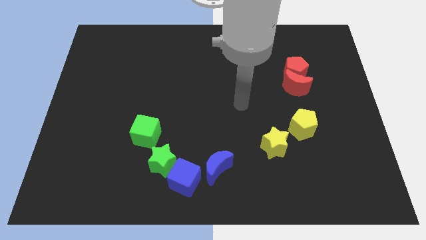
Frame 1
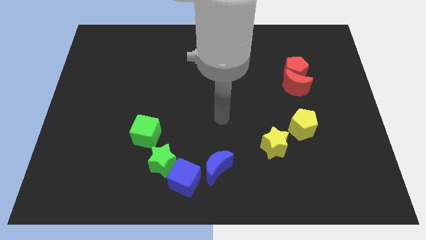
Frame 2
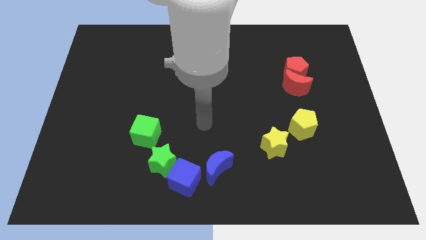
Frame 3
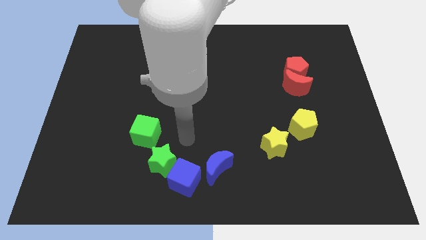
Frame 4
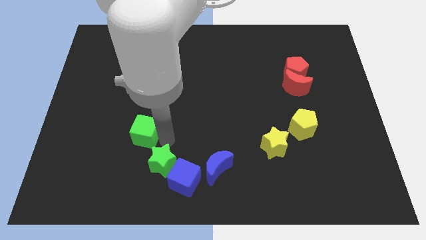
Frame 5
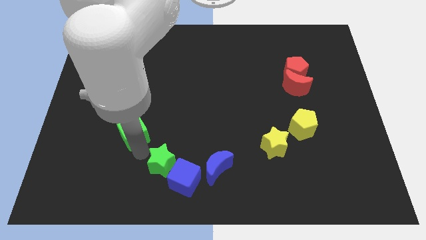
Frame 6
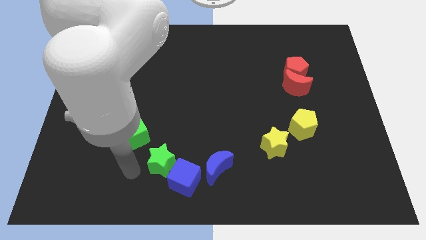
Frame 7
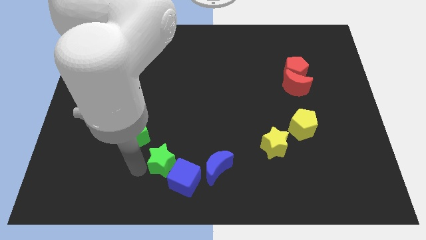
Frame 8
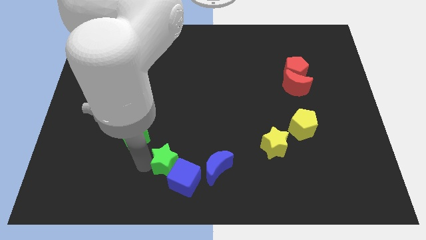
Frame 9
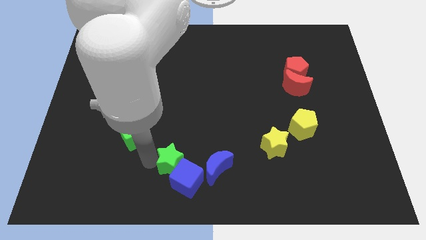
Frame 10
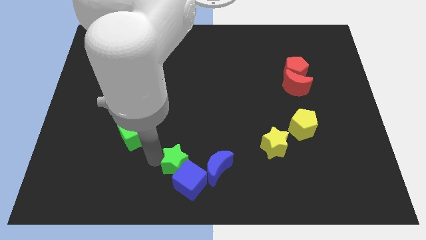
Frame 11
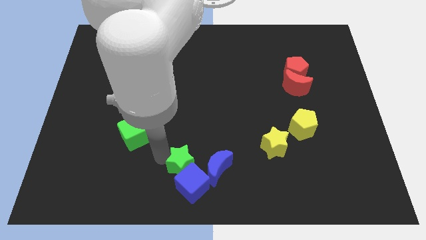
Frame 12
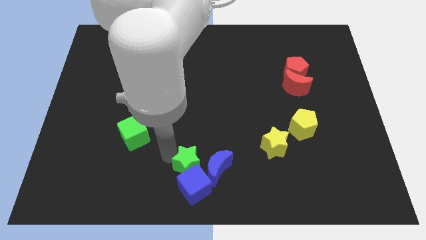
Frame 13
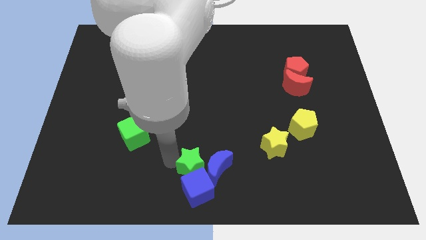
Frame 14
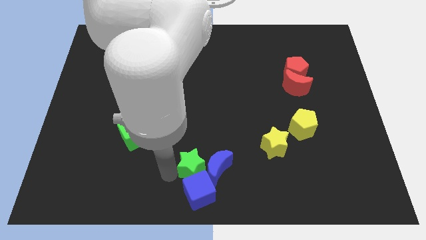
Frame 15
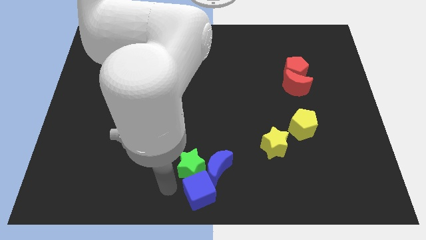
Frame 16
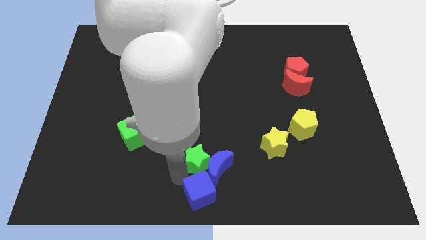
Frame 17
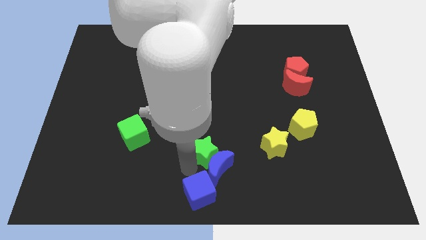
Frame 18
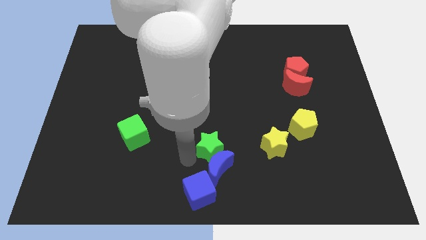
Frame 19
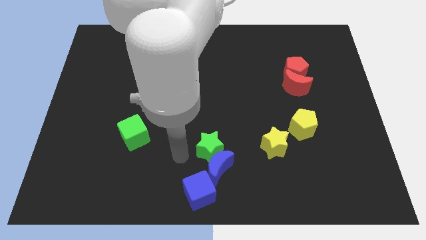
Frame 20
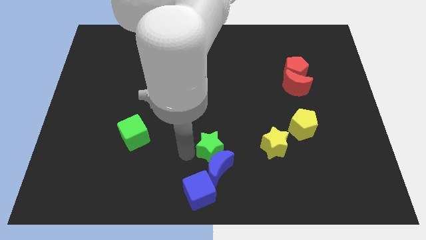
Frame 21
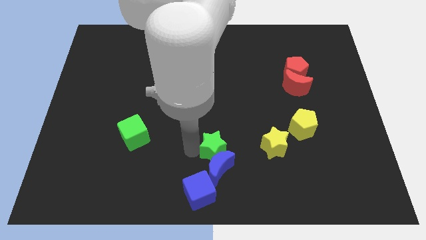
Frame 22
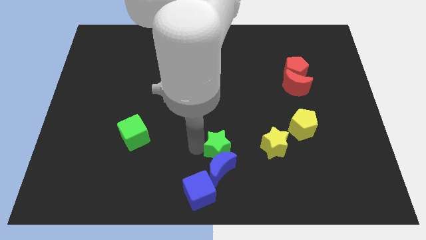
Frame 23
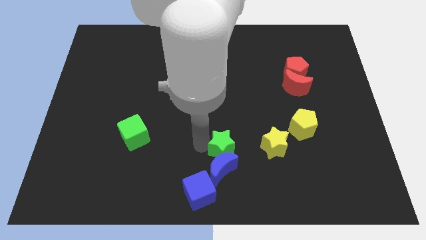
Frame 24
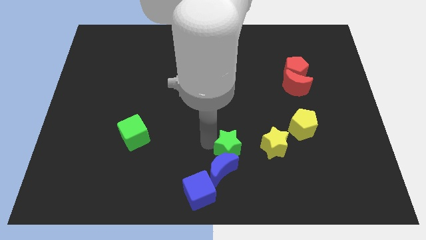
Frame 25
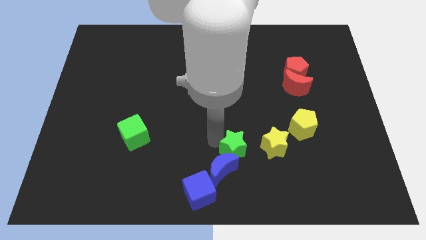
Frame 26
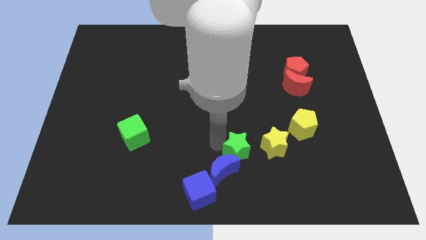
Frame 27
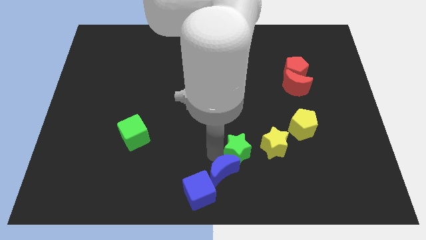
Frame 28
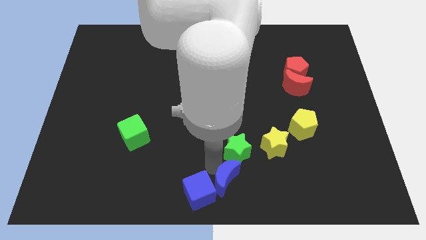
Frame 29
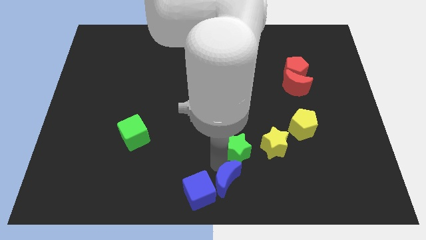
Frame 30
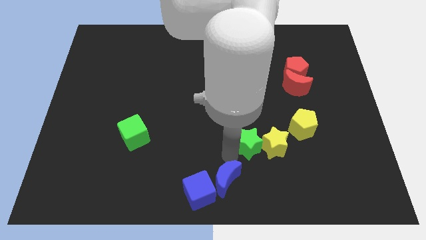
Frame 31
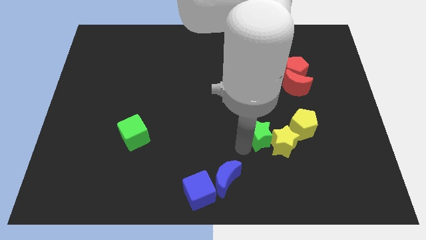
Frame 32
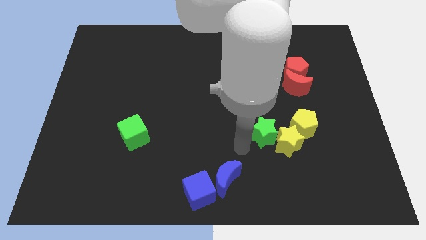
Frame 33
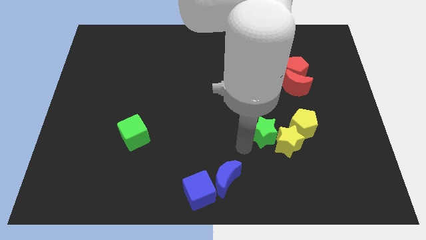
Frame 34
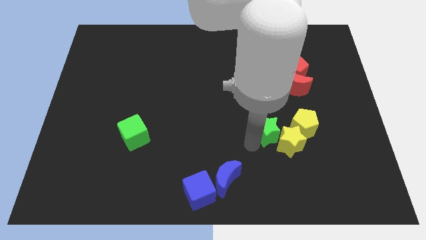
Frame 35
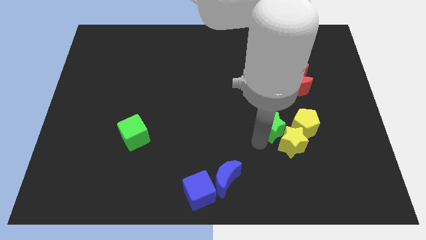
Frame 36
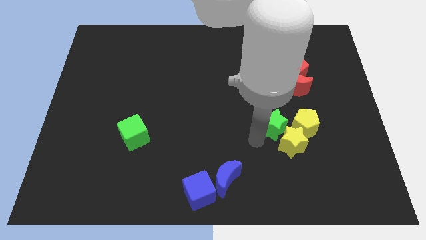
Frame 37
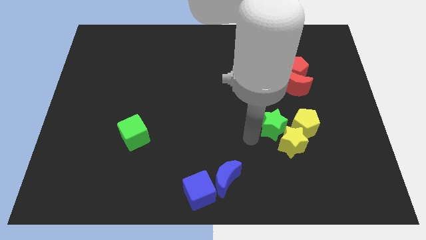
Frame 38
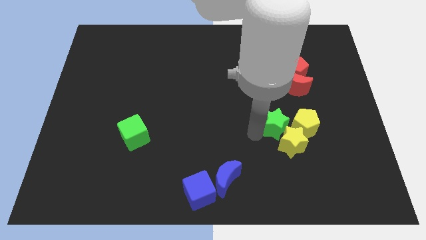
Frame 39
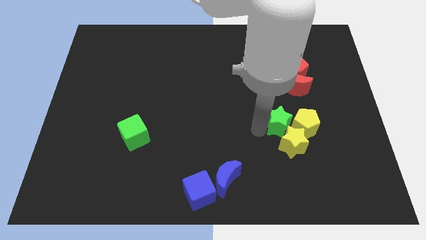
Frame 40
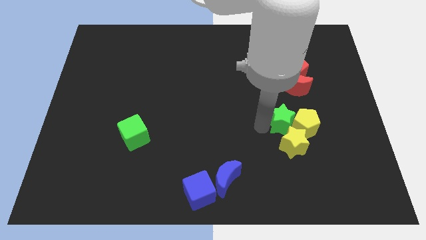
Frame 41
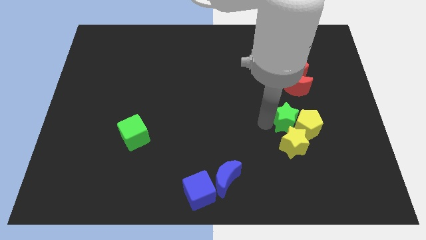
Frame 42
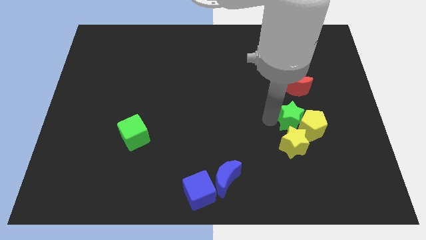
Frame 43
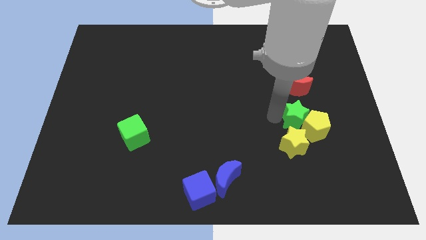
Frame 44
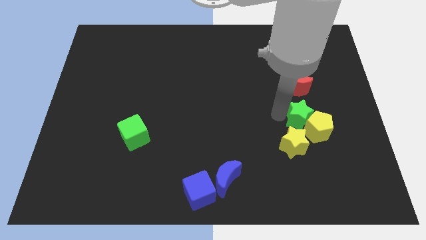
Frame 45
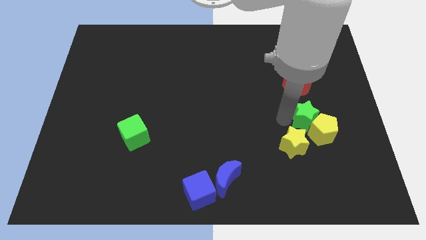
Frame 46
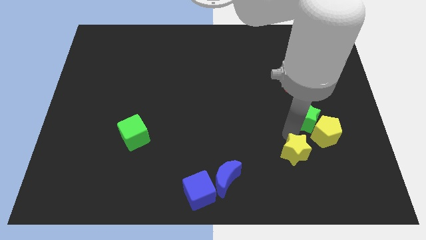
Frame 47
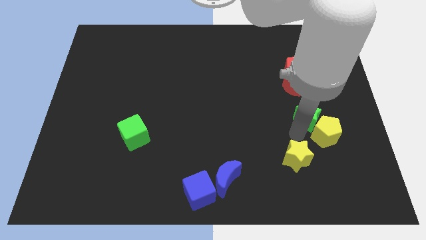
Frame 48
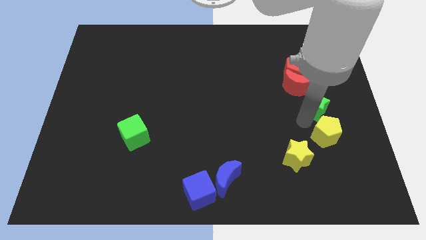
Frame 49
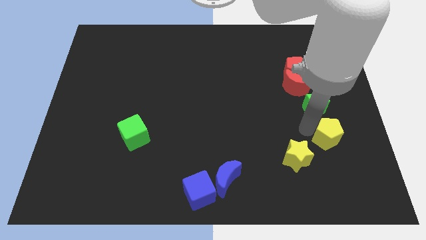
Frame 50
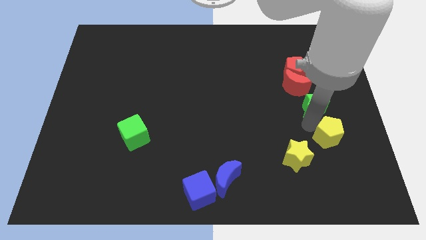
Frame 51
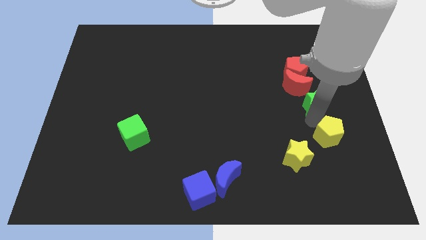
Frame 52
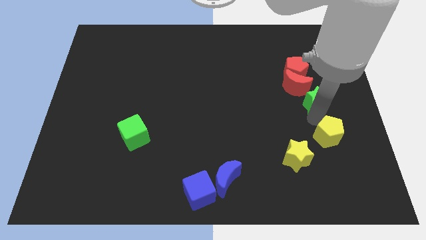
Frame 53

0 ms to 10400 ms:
push the green star to the bottom right side of the red pentagon

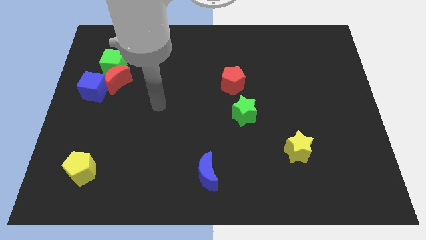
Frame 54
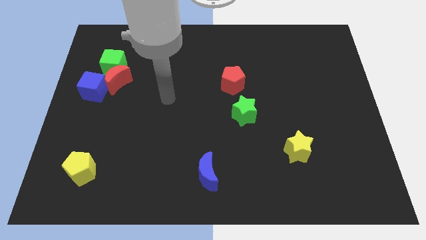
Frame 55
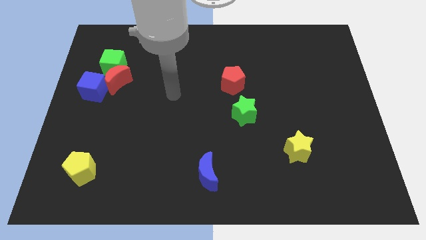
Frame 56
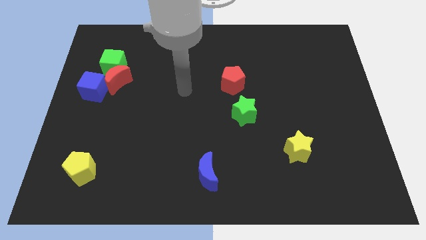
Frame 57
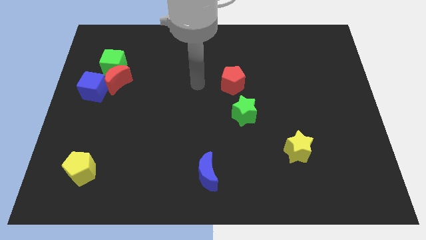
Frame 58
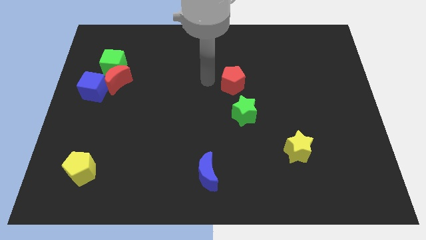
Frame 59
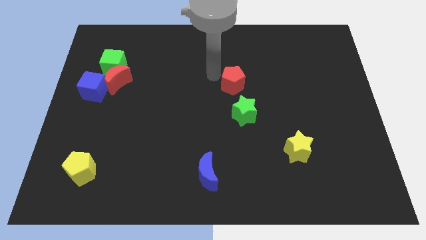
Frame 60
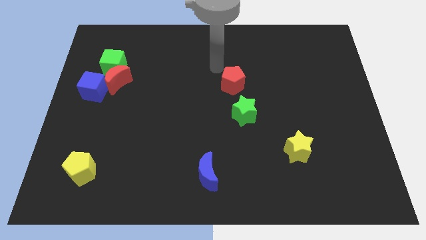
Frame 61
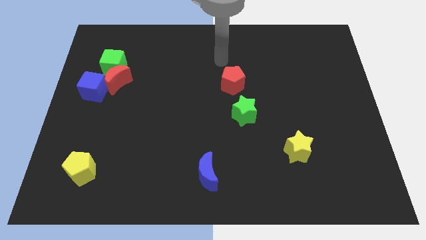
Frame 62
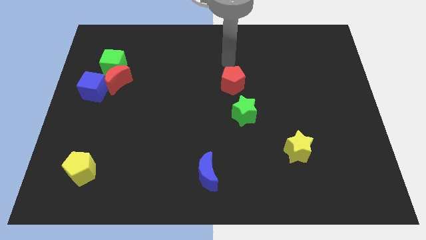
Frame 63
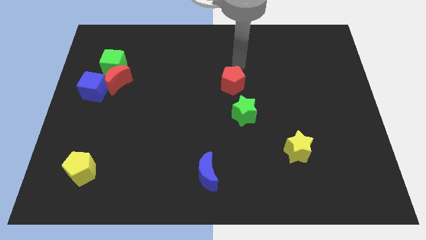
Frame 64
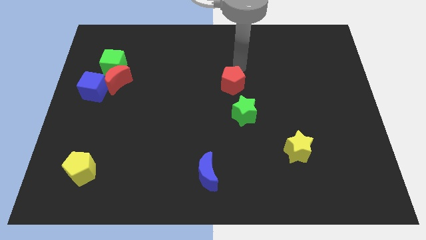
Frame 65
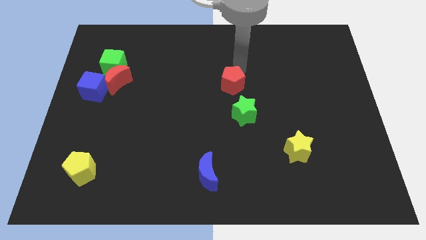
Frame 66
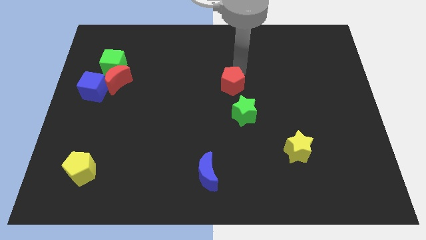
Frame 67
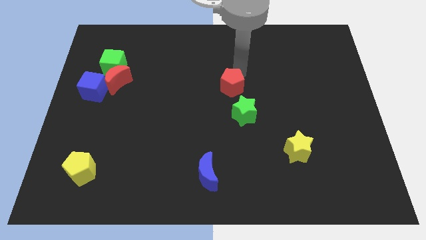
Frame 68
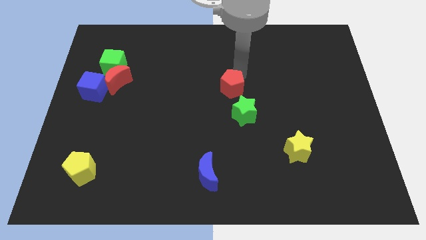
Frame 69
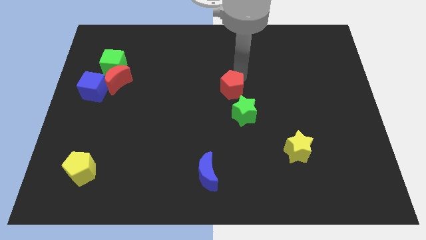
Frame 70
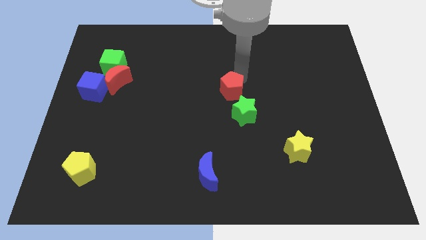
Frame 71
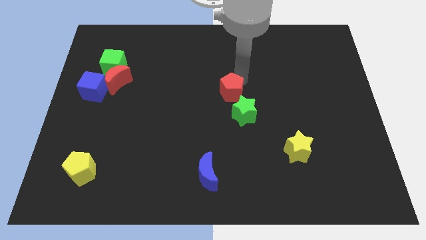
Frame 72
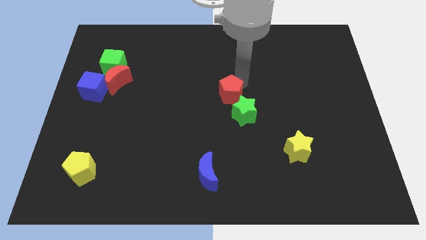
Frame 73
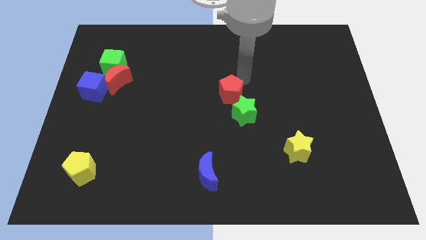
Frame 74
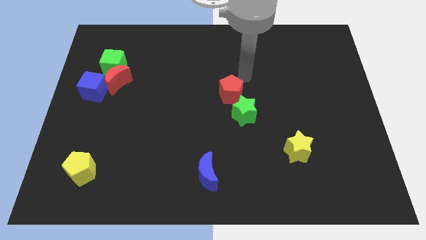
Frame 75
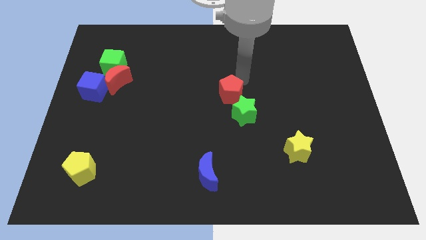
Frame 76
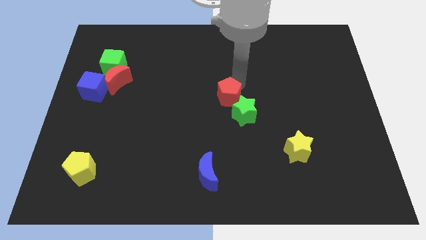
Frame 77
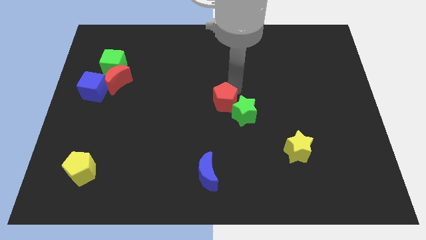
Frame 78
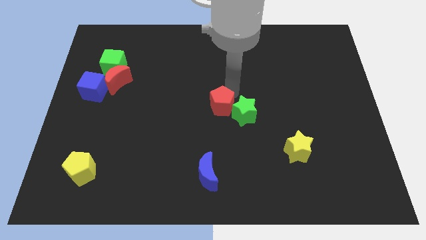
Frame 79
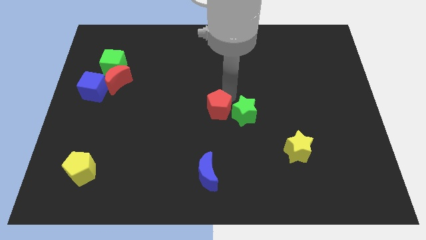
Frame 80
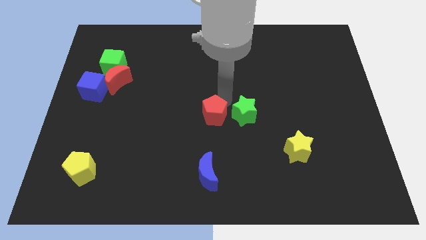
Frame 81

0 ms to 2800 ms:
slide the red pentagon above the blue moon

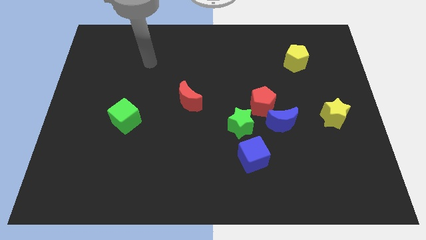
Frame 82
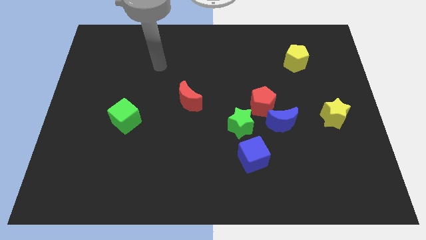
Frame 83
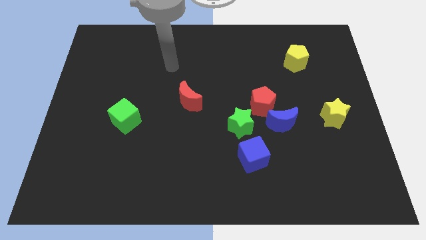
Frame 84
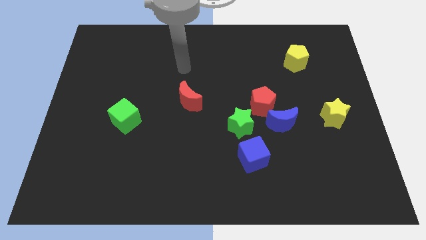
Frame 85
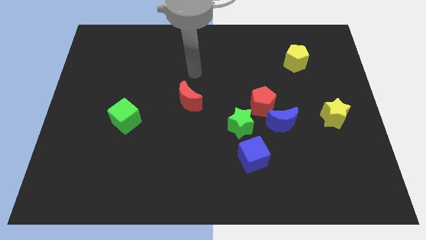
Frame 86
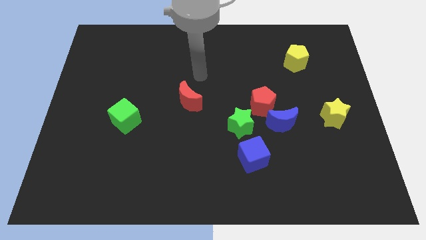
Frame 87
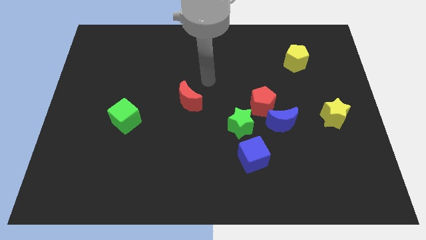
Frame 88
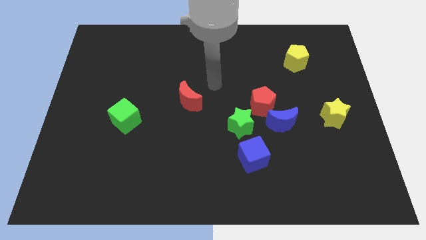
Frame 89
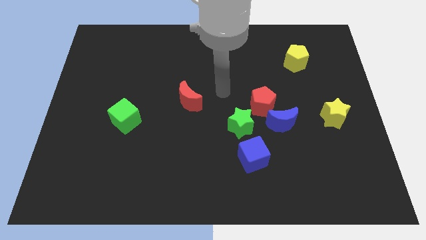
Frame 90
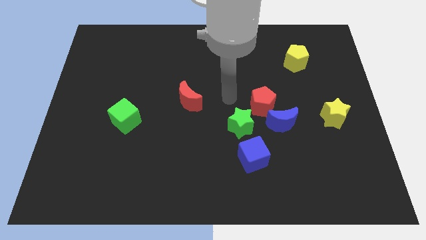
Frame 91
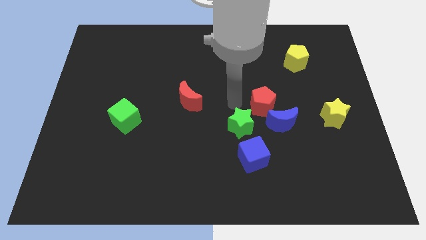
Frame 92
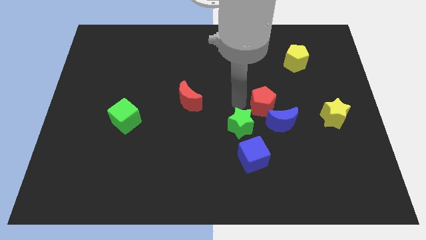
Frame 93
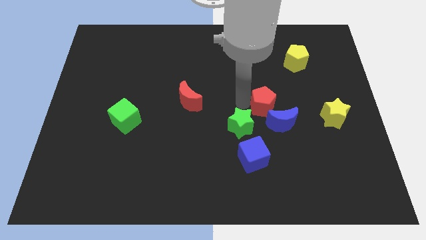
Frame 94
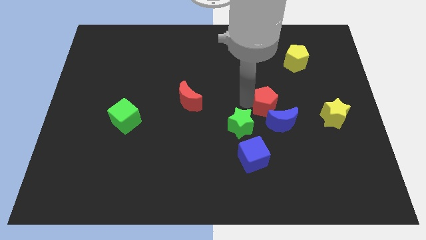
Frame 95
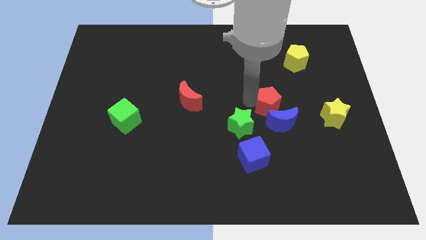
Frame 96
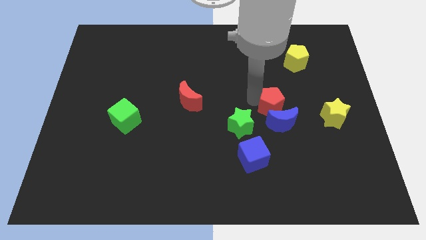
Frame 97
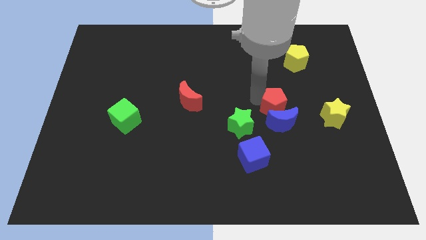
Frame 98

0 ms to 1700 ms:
slide the red pentagon to the top right side of the blue moon
